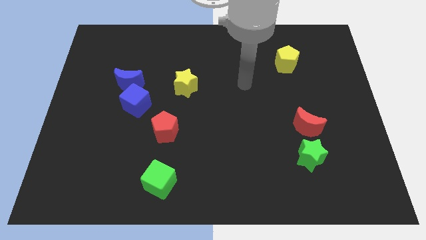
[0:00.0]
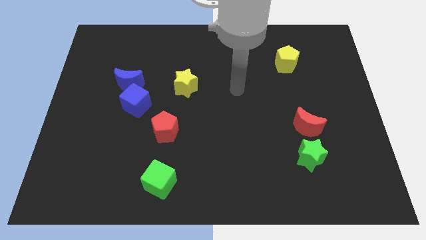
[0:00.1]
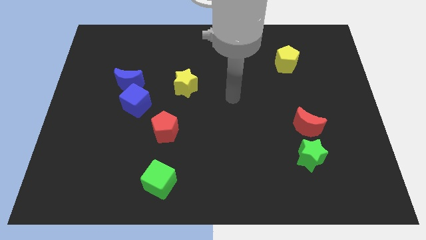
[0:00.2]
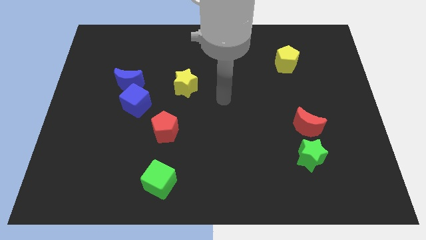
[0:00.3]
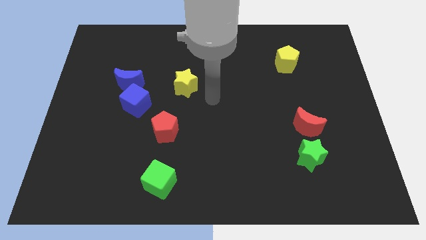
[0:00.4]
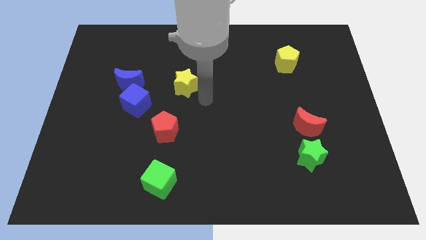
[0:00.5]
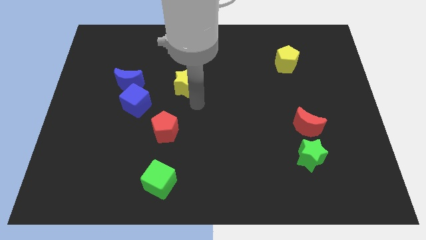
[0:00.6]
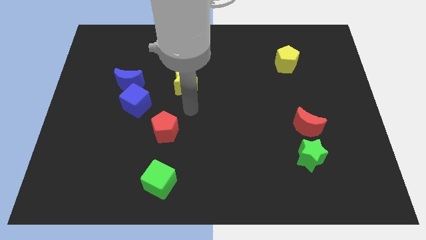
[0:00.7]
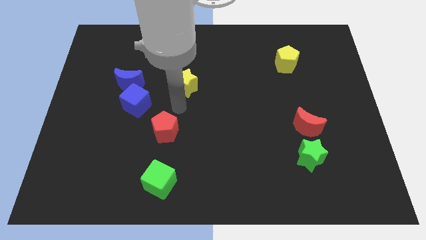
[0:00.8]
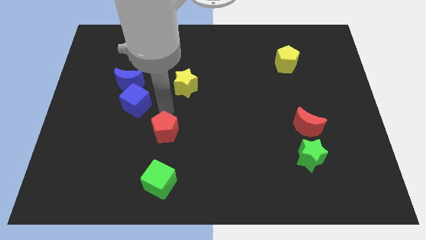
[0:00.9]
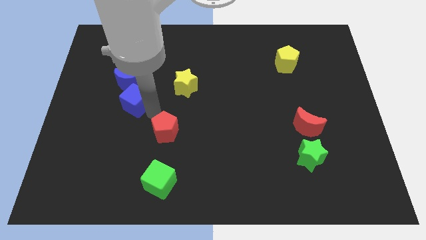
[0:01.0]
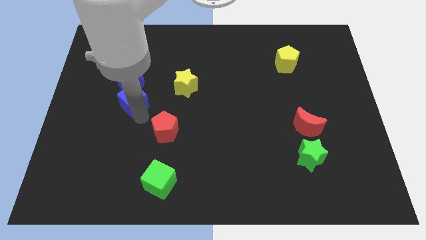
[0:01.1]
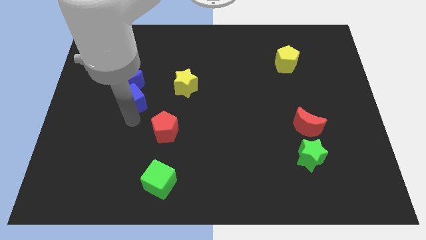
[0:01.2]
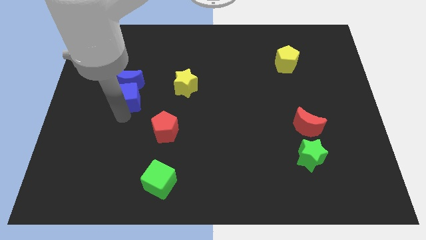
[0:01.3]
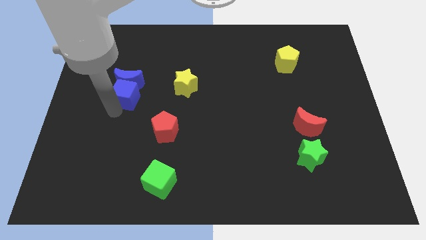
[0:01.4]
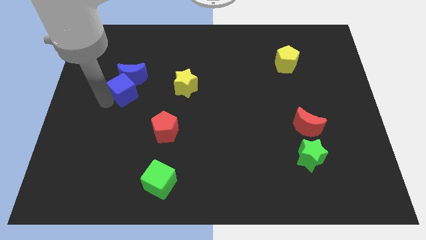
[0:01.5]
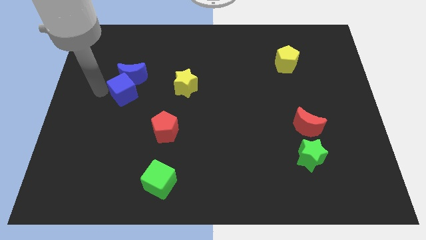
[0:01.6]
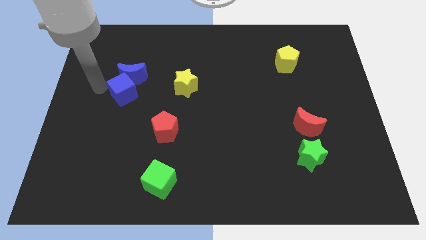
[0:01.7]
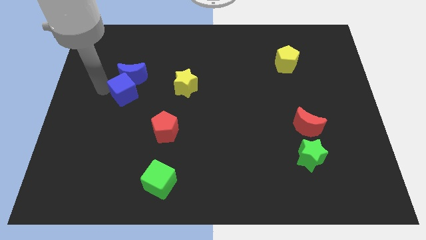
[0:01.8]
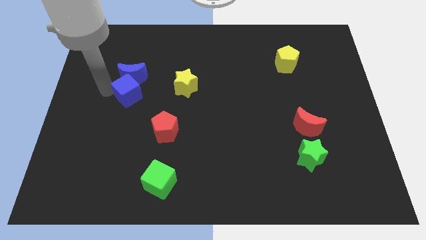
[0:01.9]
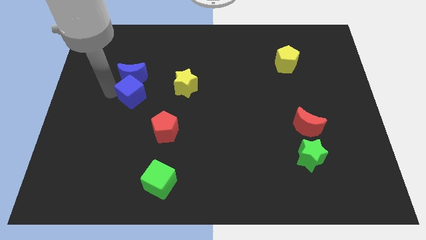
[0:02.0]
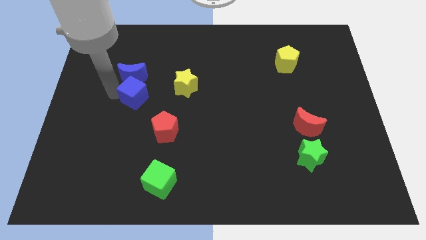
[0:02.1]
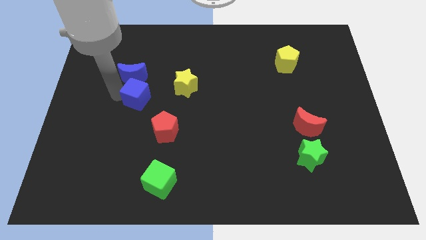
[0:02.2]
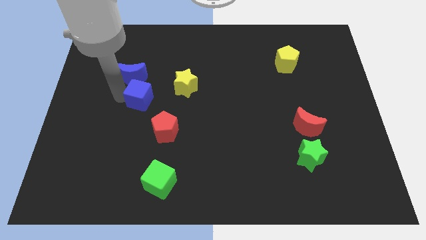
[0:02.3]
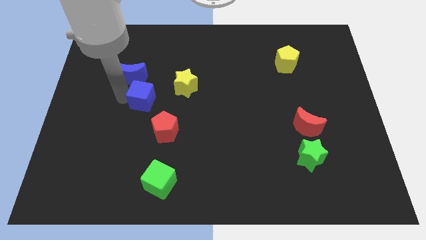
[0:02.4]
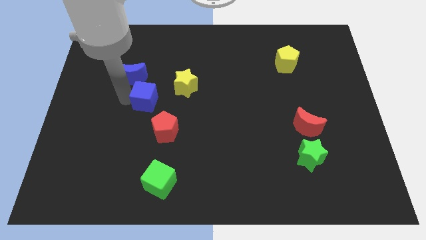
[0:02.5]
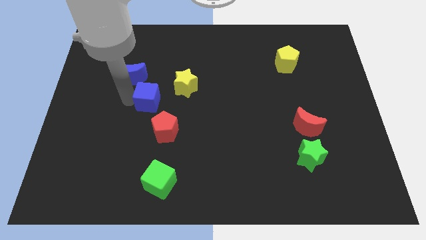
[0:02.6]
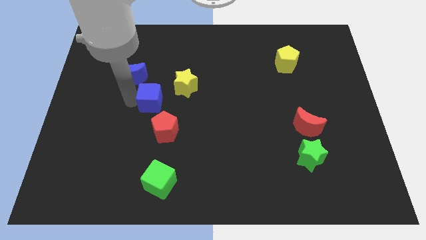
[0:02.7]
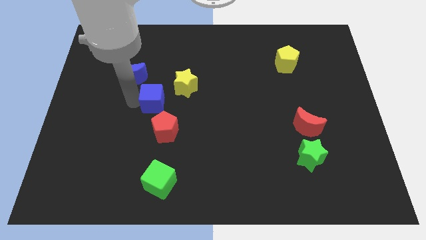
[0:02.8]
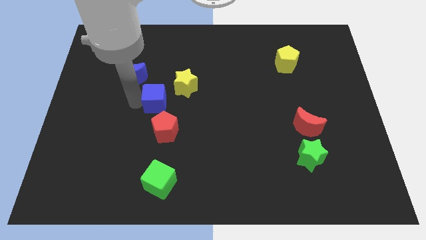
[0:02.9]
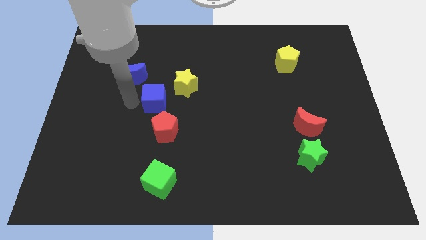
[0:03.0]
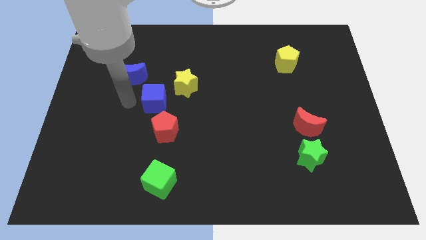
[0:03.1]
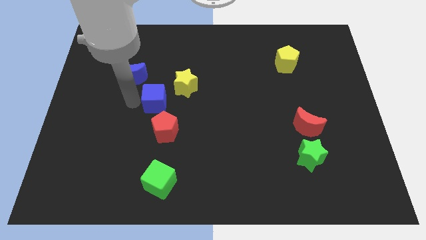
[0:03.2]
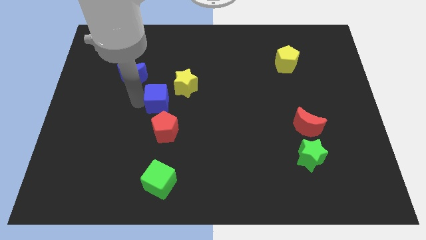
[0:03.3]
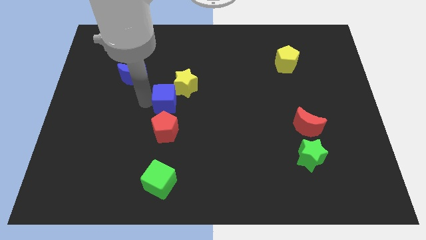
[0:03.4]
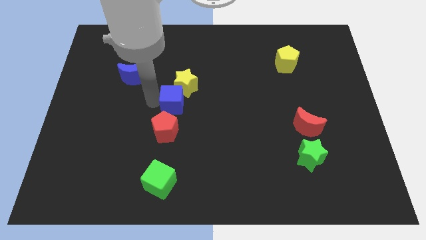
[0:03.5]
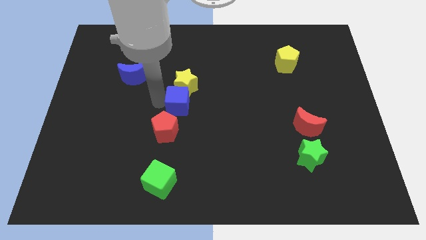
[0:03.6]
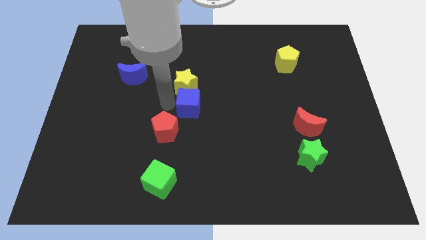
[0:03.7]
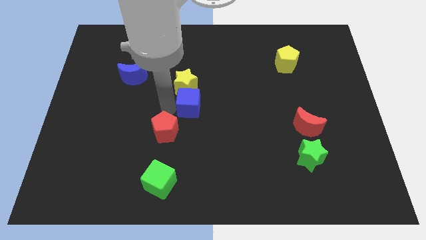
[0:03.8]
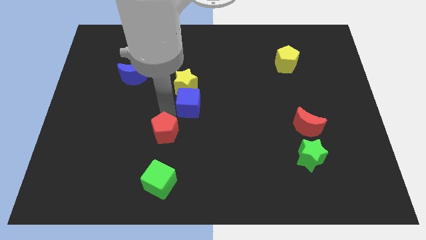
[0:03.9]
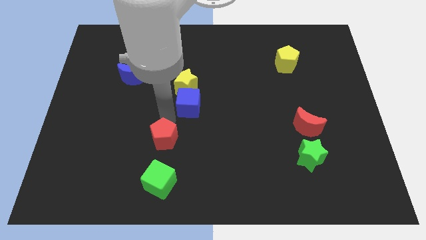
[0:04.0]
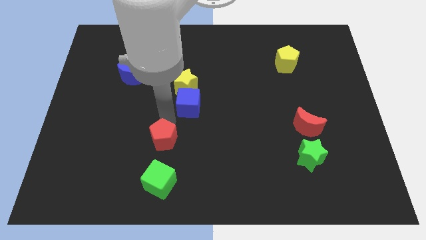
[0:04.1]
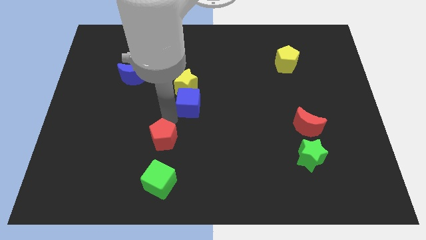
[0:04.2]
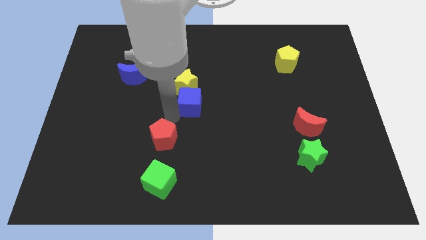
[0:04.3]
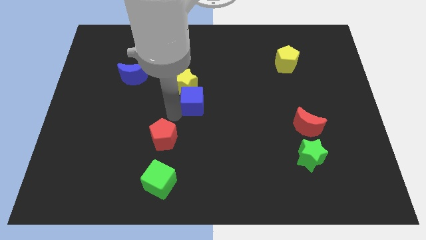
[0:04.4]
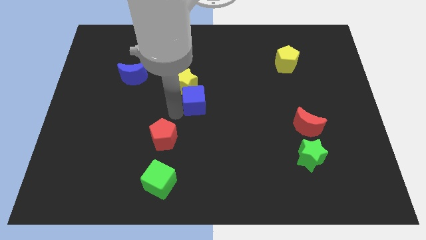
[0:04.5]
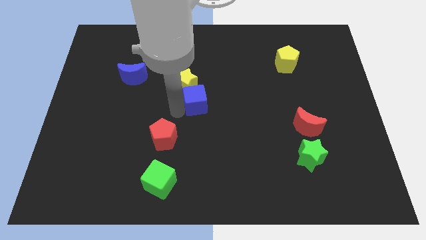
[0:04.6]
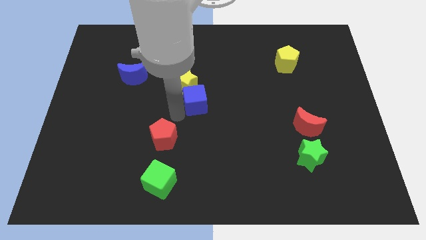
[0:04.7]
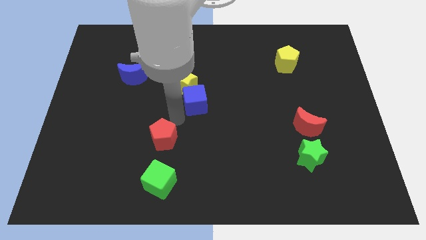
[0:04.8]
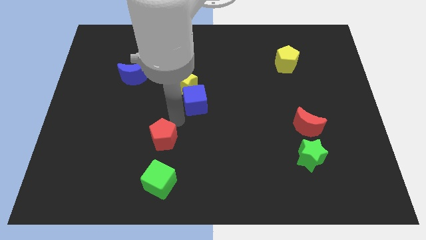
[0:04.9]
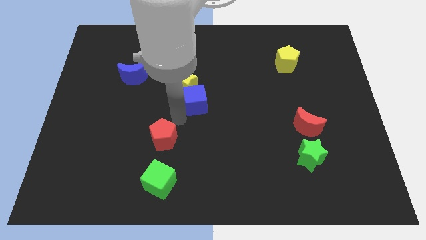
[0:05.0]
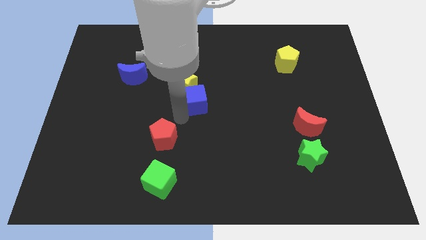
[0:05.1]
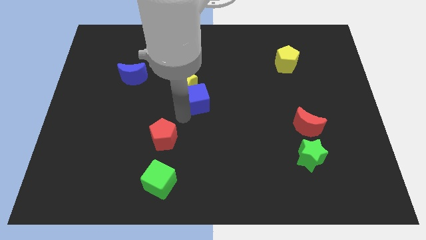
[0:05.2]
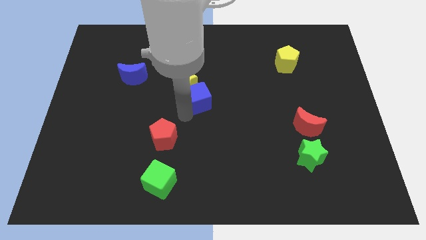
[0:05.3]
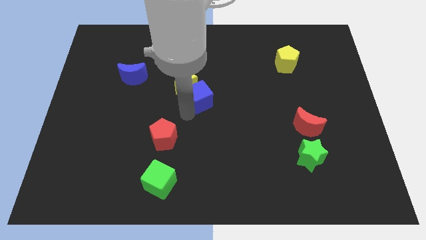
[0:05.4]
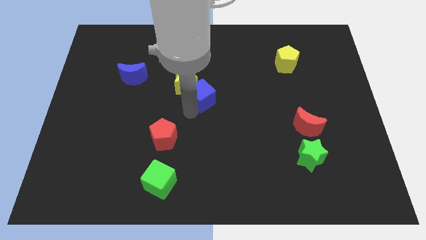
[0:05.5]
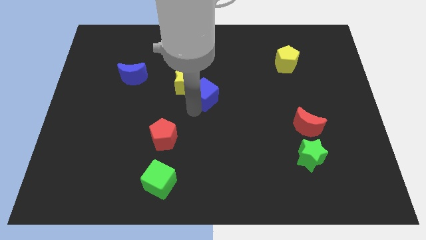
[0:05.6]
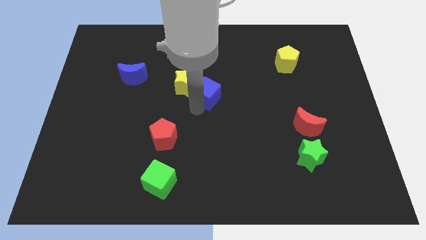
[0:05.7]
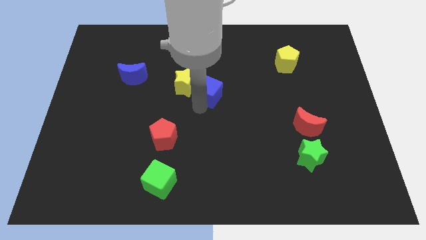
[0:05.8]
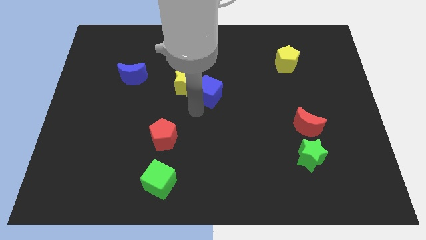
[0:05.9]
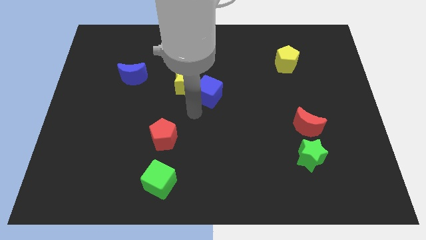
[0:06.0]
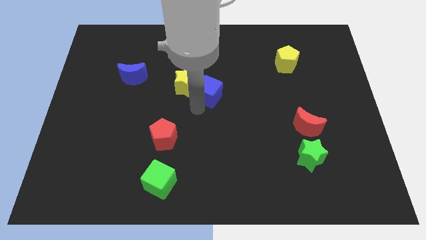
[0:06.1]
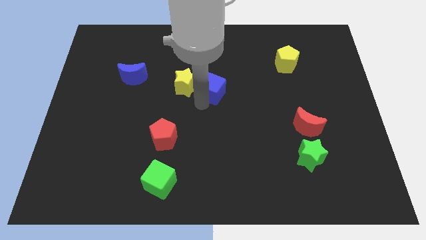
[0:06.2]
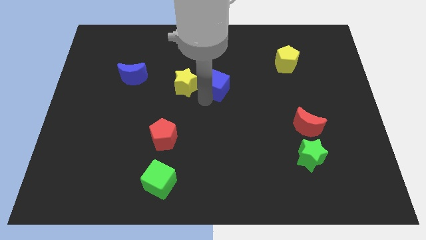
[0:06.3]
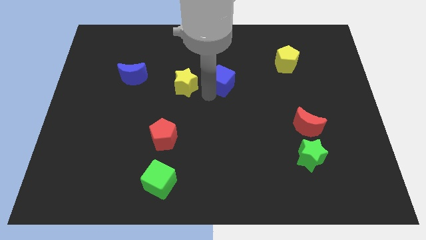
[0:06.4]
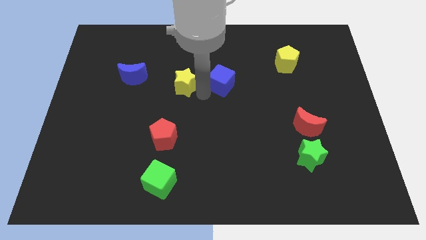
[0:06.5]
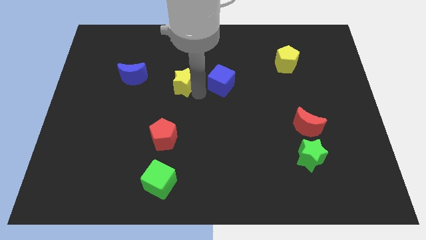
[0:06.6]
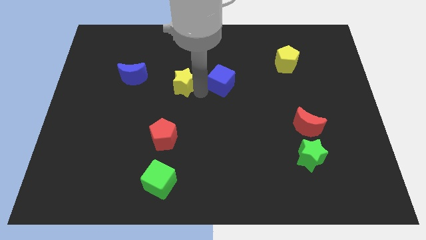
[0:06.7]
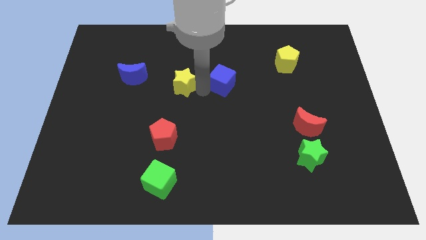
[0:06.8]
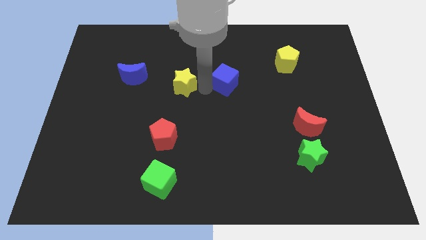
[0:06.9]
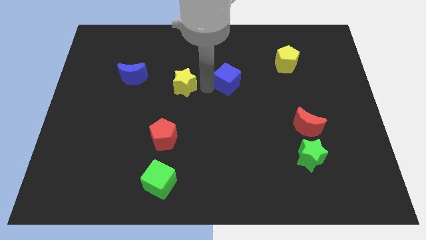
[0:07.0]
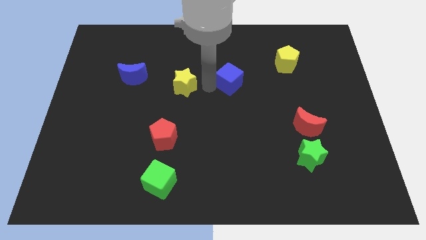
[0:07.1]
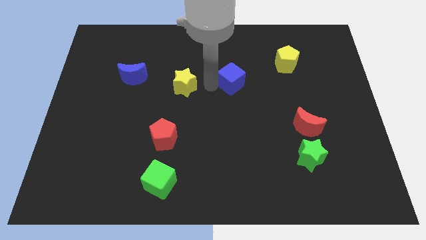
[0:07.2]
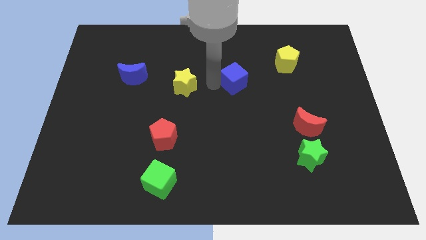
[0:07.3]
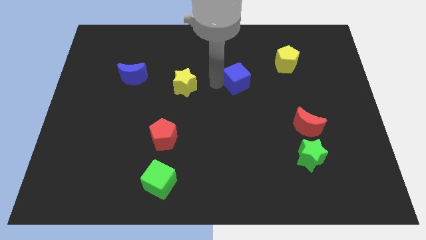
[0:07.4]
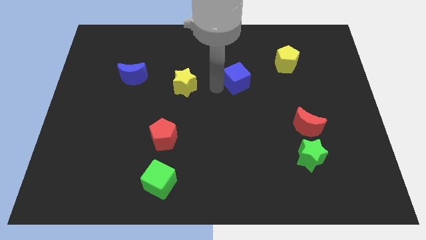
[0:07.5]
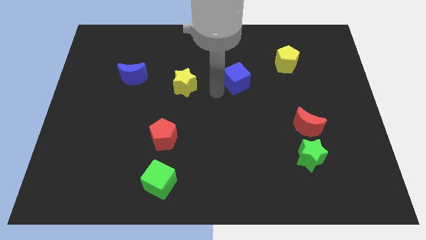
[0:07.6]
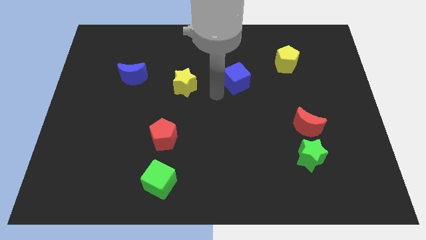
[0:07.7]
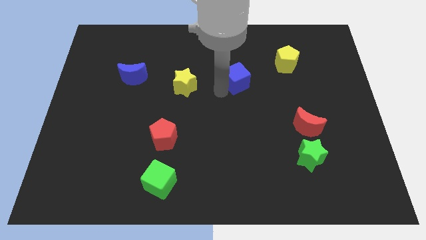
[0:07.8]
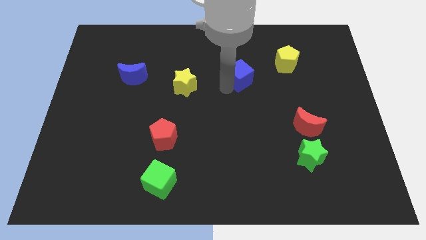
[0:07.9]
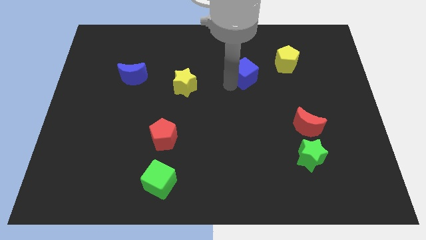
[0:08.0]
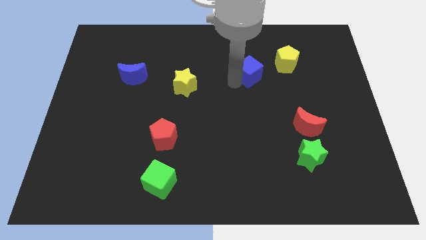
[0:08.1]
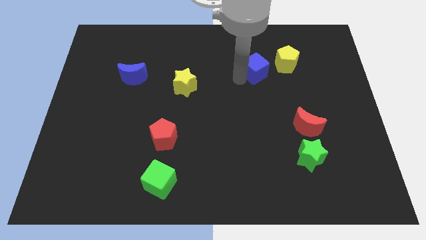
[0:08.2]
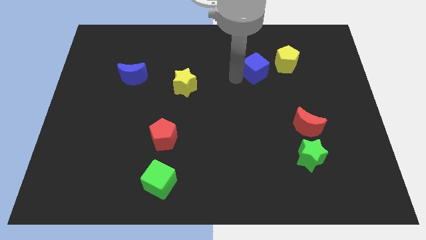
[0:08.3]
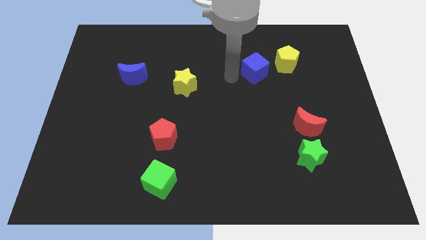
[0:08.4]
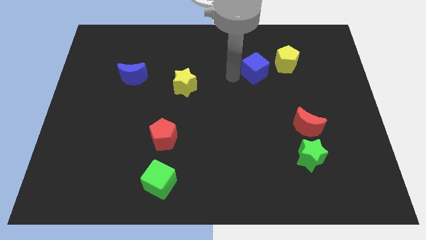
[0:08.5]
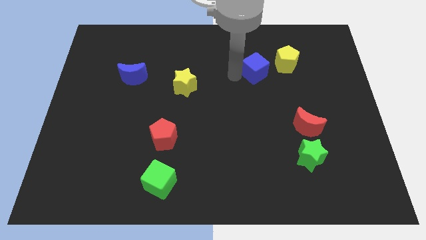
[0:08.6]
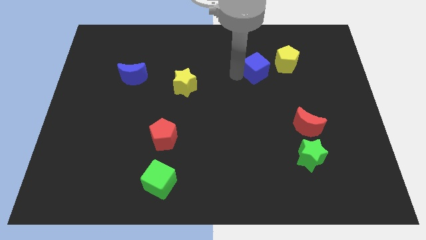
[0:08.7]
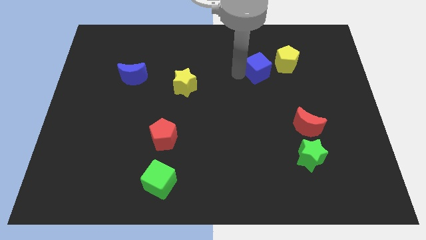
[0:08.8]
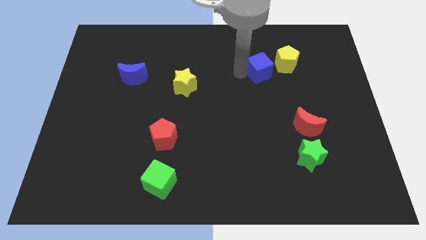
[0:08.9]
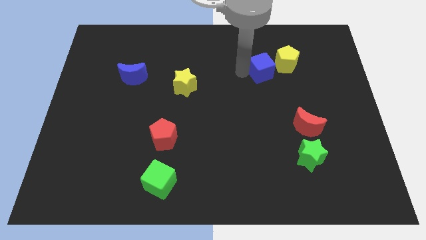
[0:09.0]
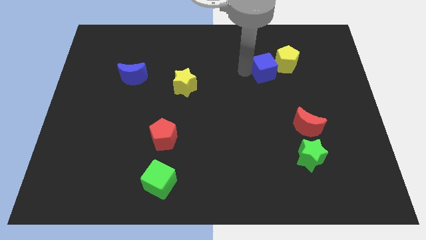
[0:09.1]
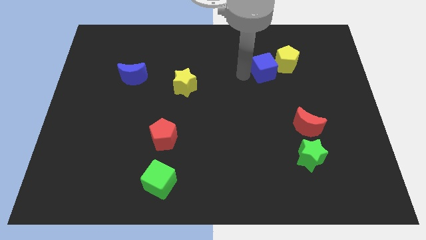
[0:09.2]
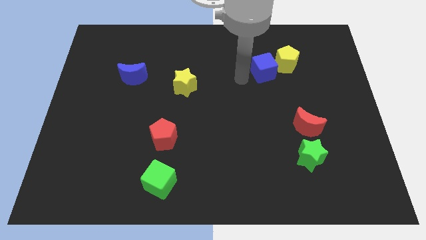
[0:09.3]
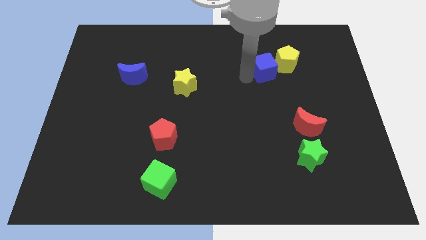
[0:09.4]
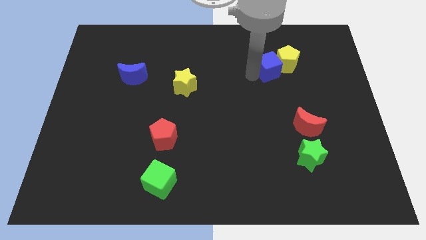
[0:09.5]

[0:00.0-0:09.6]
move the blue cube next to the yellow pentagon
